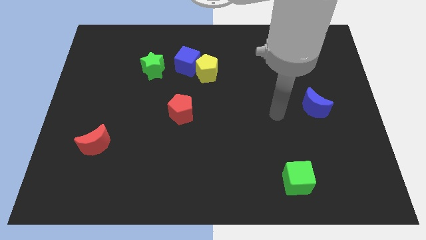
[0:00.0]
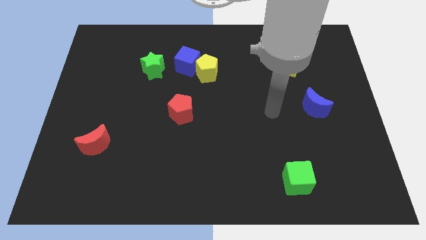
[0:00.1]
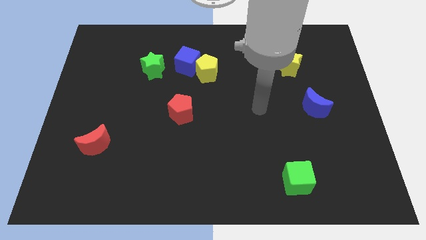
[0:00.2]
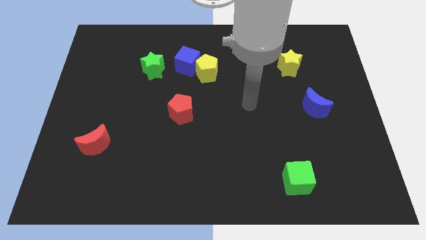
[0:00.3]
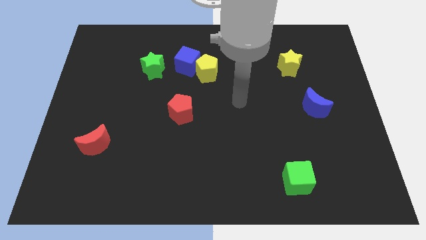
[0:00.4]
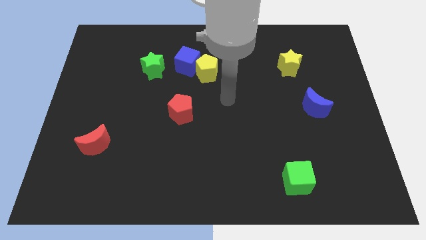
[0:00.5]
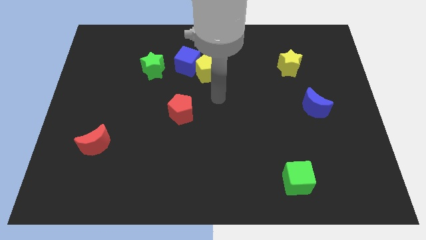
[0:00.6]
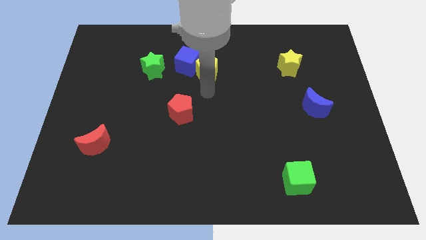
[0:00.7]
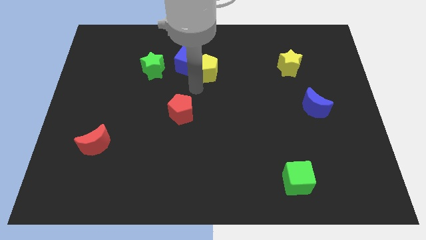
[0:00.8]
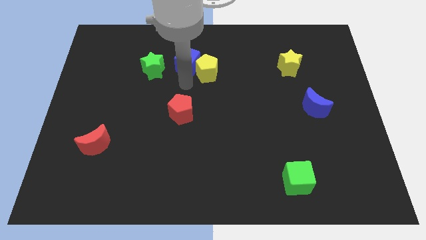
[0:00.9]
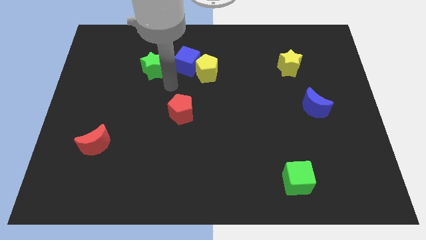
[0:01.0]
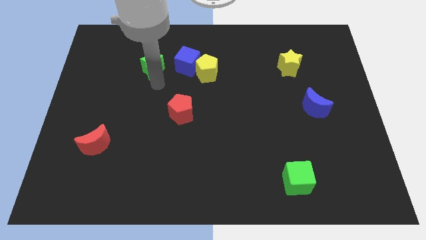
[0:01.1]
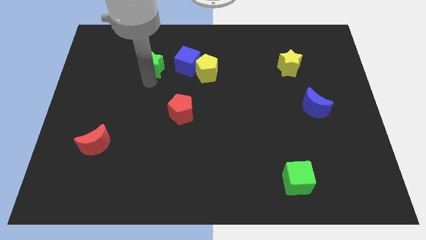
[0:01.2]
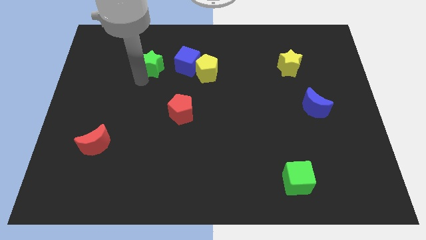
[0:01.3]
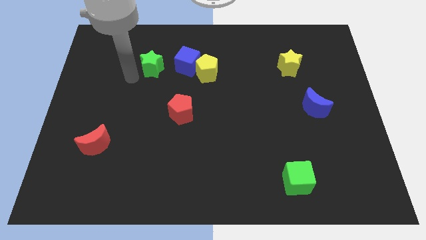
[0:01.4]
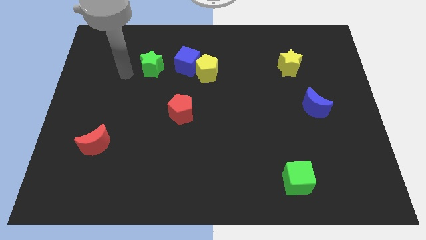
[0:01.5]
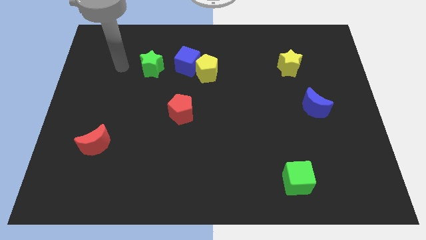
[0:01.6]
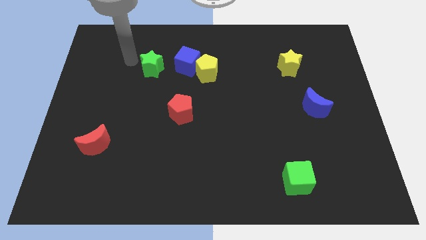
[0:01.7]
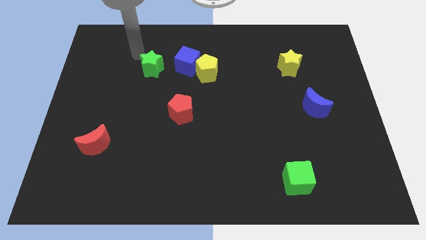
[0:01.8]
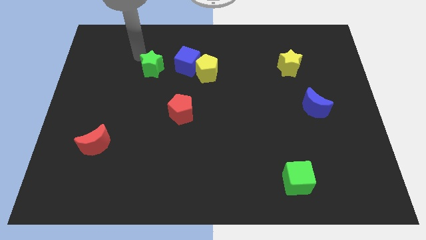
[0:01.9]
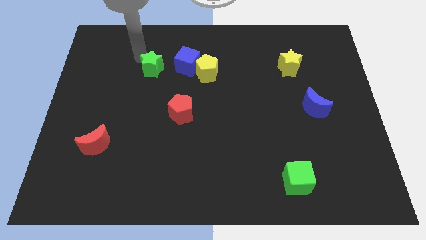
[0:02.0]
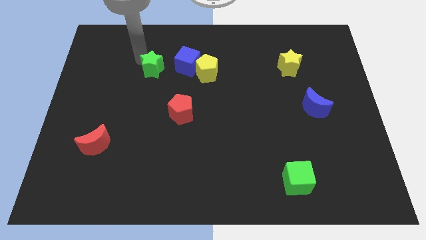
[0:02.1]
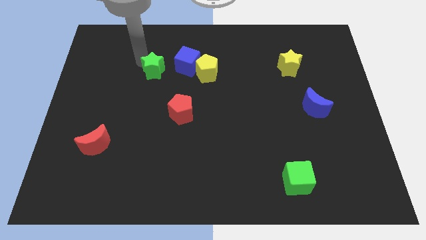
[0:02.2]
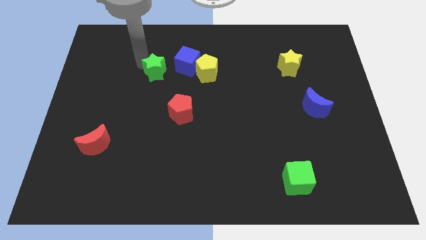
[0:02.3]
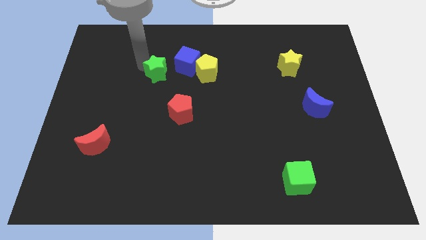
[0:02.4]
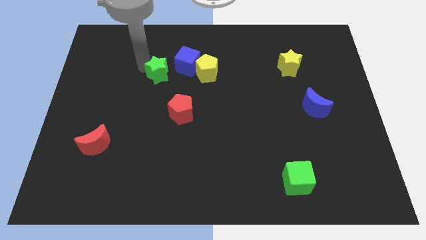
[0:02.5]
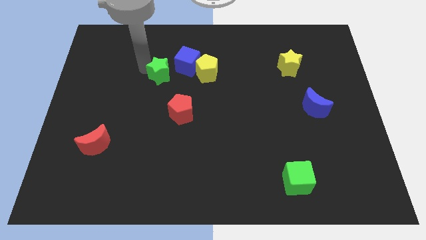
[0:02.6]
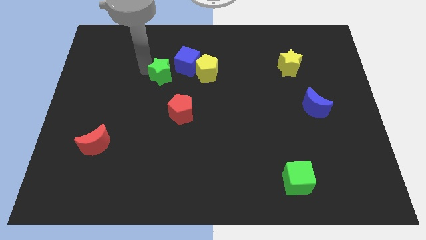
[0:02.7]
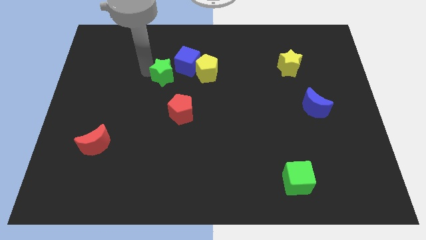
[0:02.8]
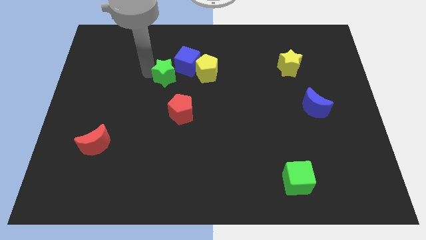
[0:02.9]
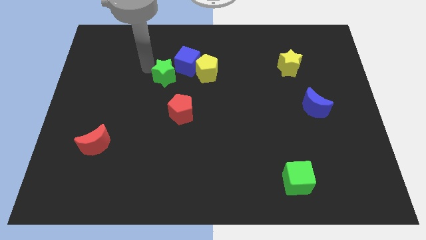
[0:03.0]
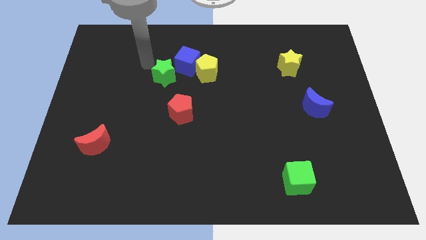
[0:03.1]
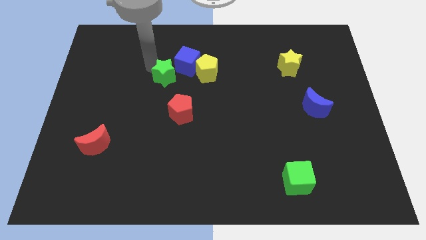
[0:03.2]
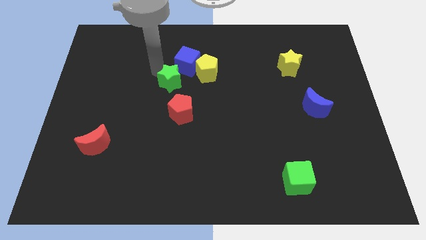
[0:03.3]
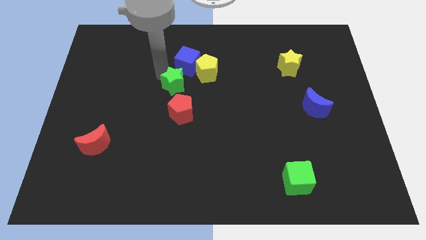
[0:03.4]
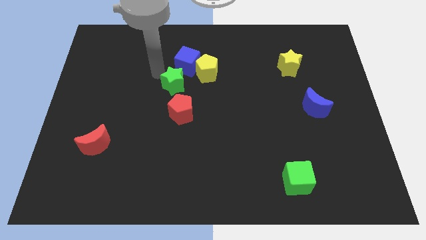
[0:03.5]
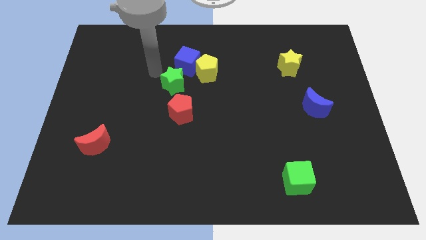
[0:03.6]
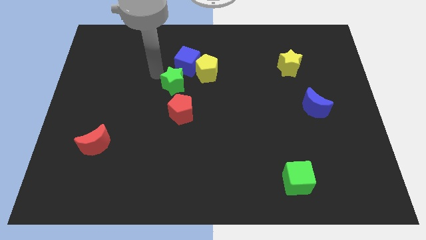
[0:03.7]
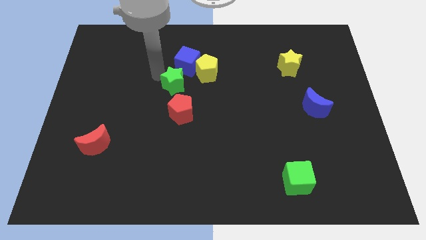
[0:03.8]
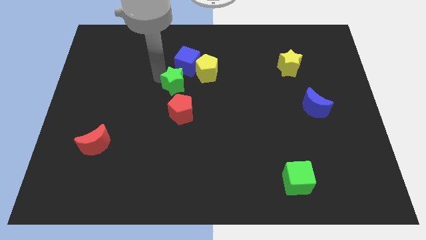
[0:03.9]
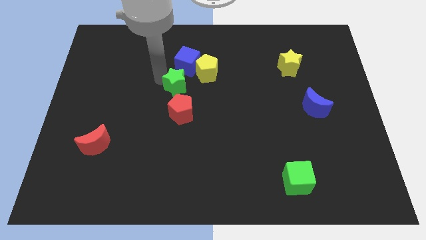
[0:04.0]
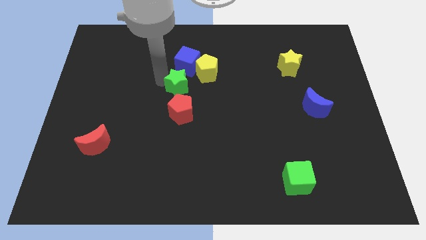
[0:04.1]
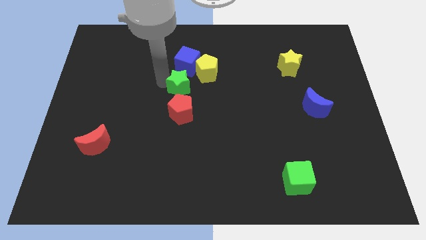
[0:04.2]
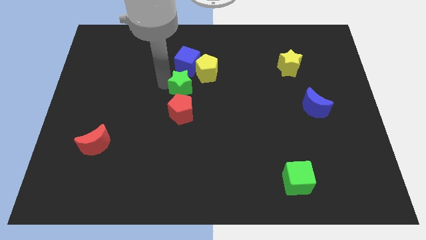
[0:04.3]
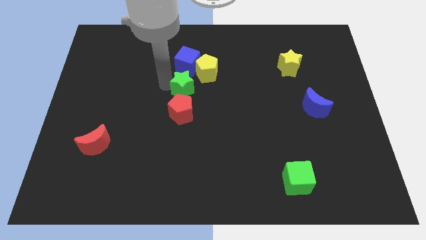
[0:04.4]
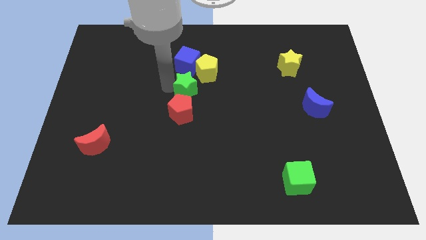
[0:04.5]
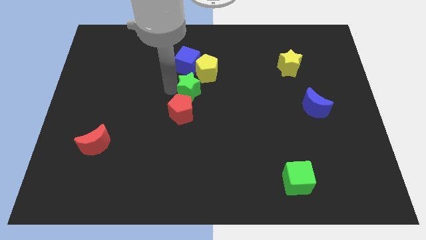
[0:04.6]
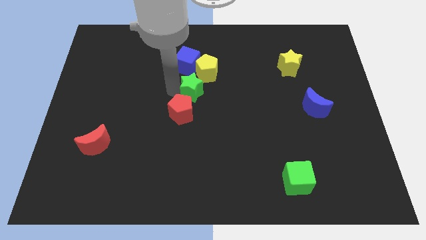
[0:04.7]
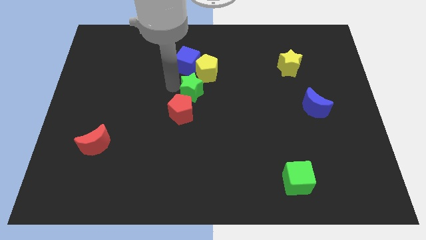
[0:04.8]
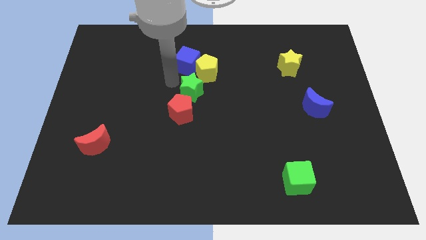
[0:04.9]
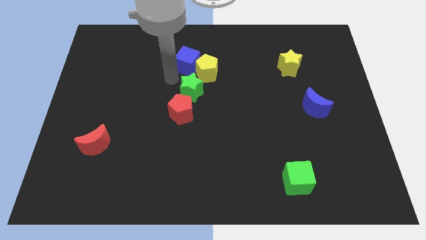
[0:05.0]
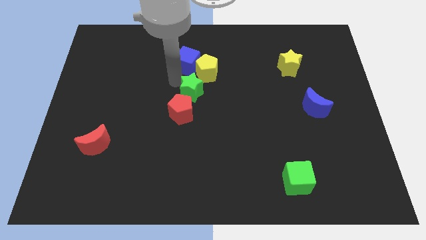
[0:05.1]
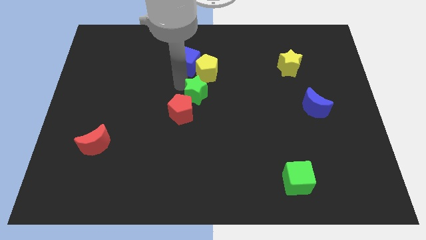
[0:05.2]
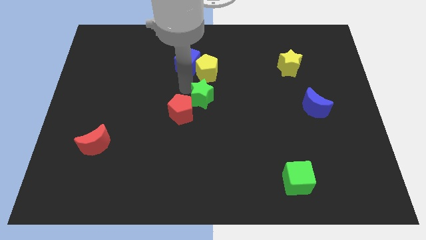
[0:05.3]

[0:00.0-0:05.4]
slide the green star right of the red pentagon

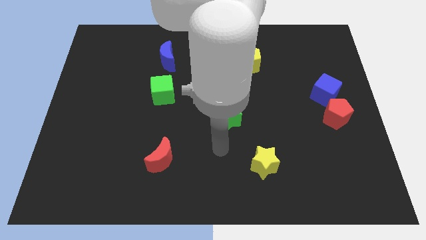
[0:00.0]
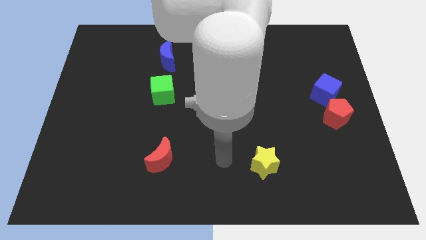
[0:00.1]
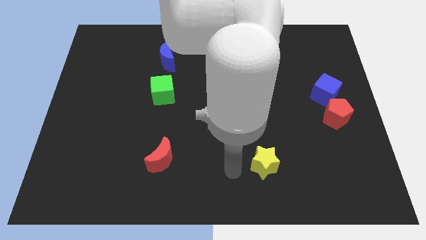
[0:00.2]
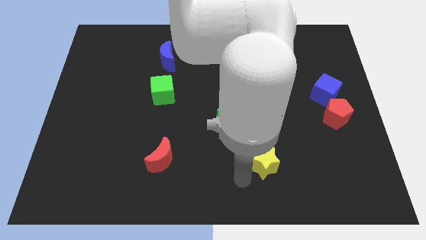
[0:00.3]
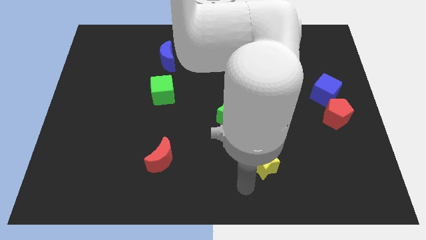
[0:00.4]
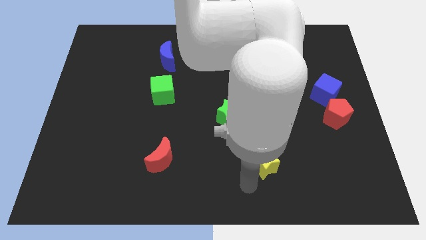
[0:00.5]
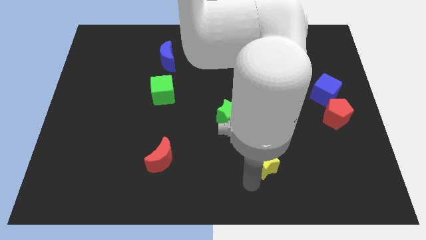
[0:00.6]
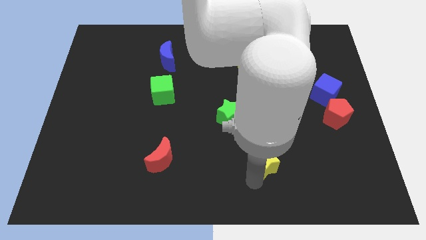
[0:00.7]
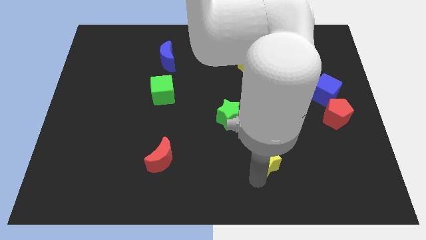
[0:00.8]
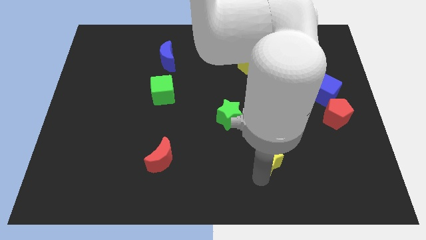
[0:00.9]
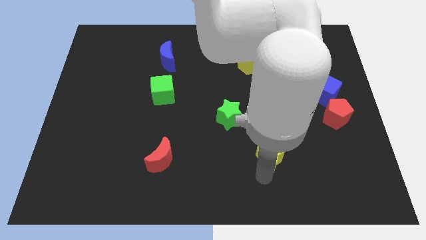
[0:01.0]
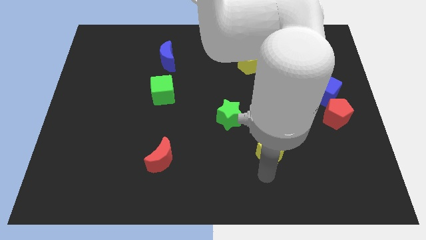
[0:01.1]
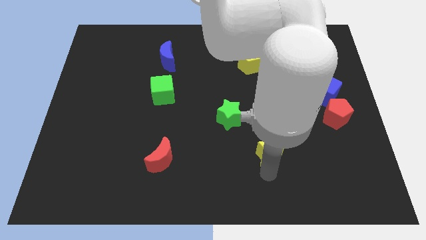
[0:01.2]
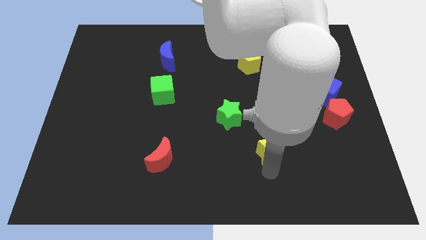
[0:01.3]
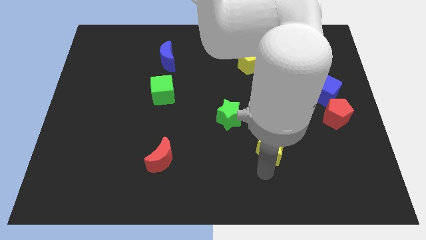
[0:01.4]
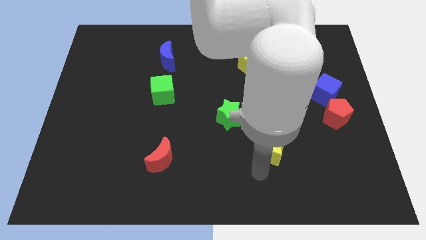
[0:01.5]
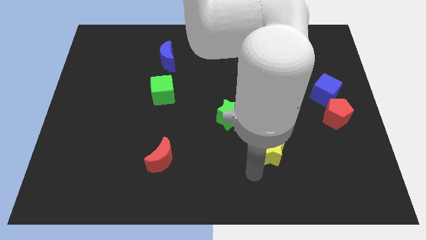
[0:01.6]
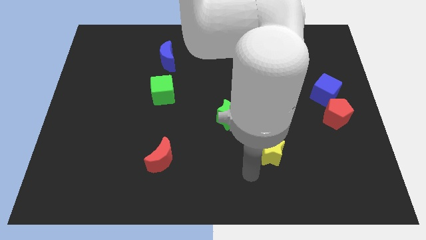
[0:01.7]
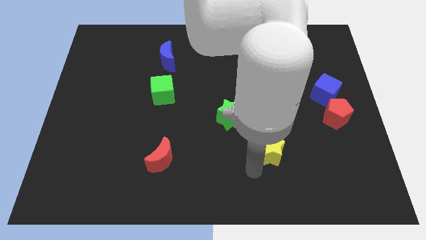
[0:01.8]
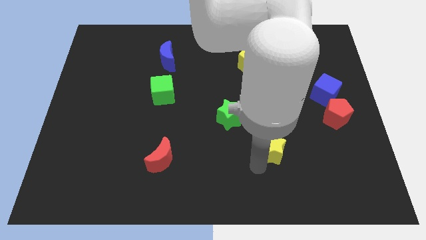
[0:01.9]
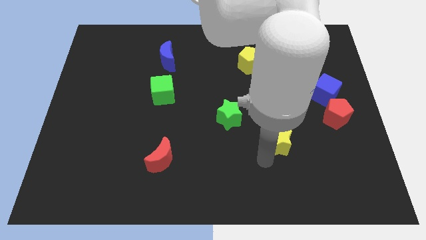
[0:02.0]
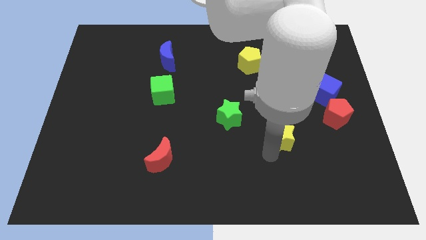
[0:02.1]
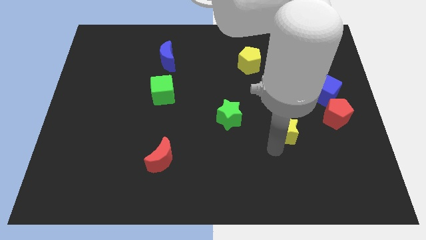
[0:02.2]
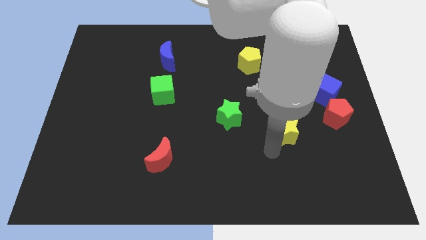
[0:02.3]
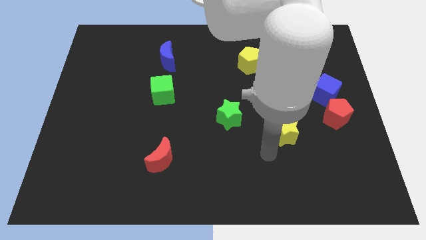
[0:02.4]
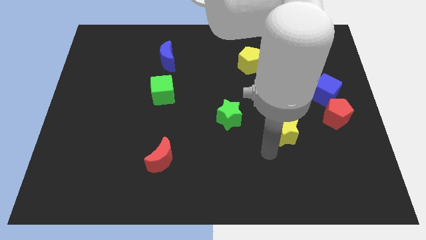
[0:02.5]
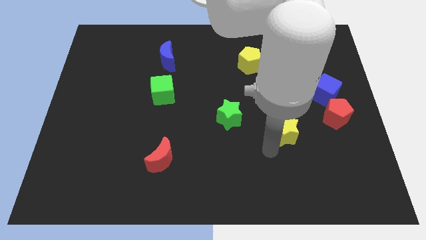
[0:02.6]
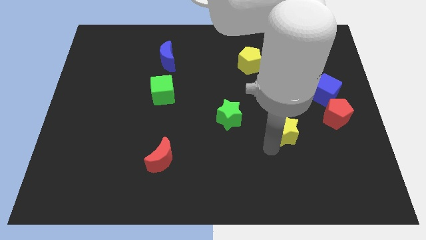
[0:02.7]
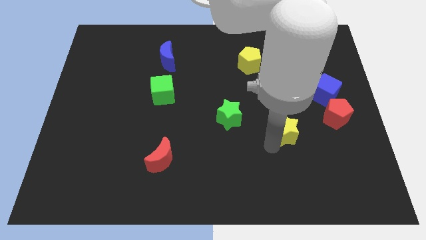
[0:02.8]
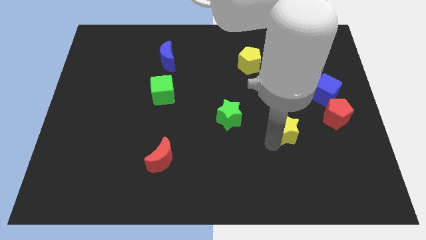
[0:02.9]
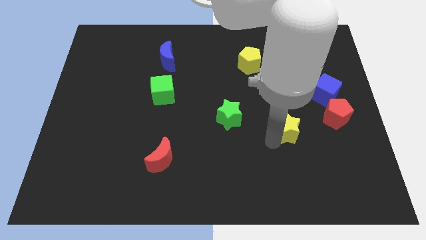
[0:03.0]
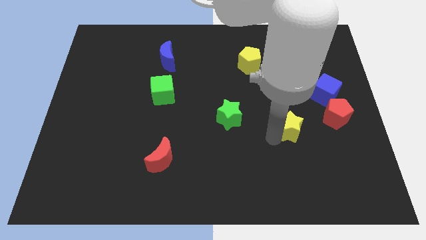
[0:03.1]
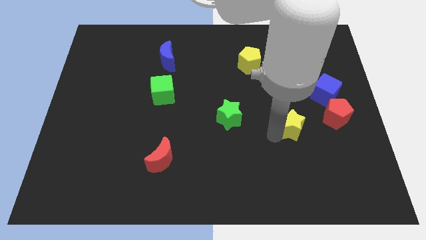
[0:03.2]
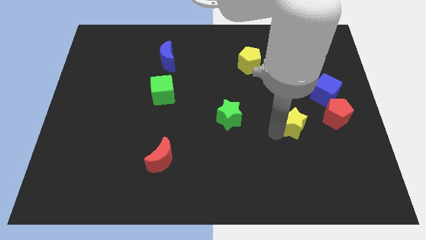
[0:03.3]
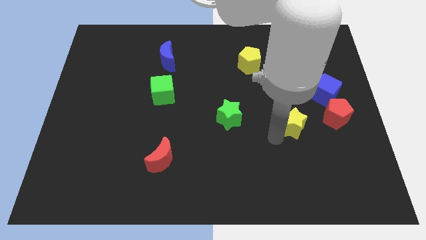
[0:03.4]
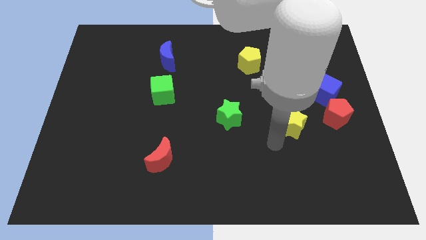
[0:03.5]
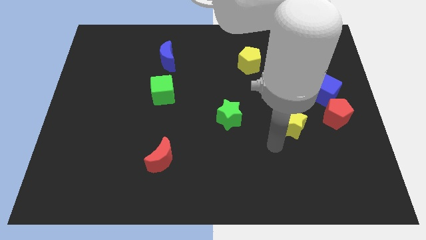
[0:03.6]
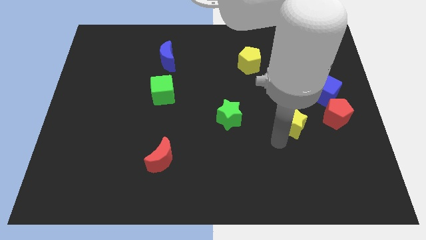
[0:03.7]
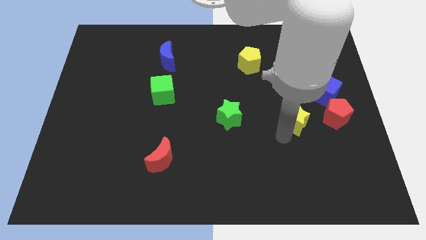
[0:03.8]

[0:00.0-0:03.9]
put the yellow star diagonally down and to the left of the blue cube
